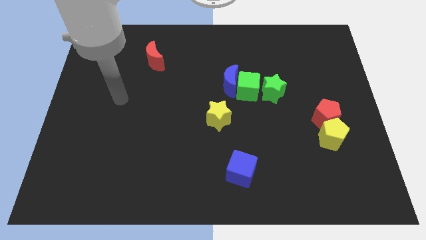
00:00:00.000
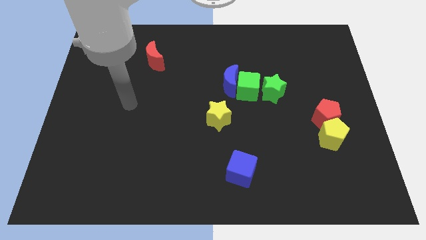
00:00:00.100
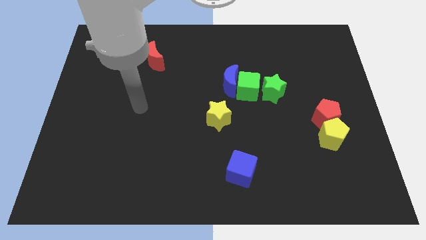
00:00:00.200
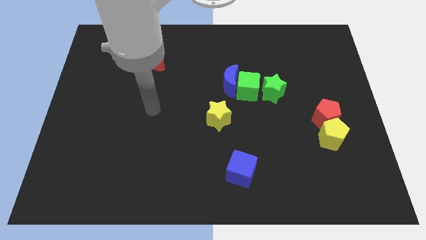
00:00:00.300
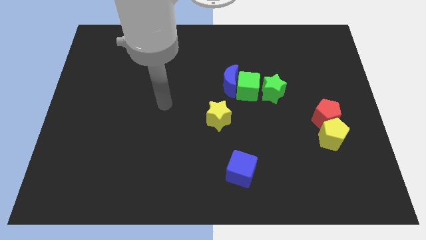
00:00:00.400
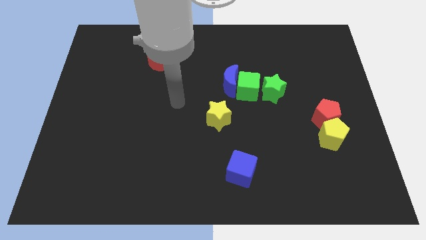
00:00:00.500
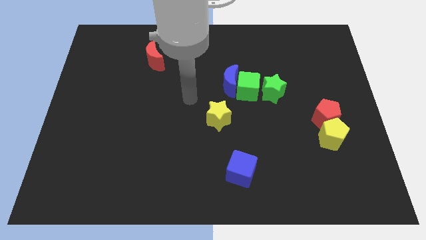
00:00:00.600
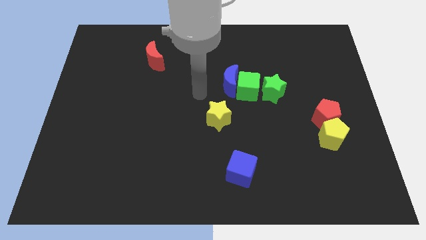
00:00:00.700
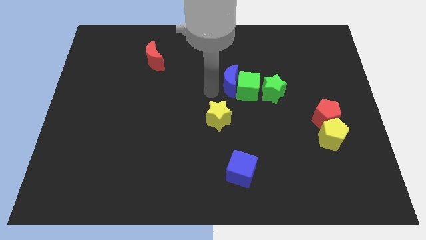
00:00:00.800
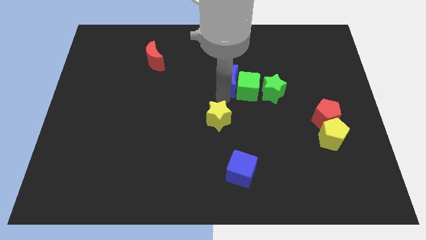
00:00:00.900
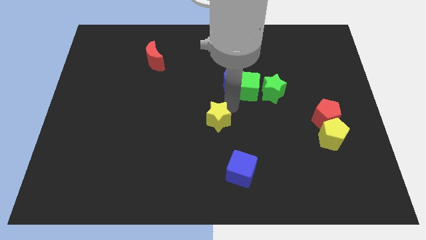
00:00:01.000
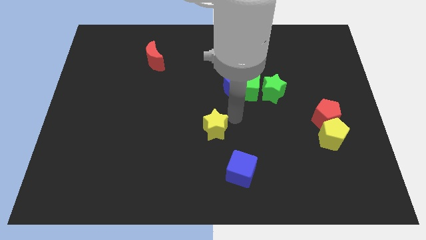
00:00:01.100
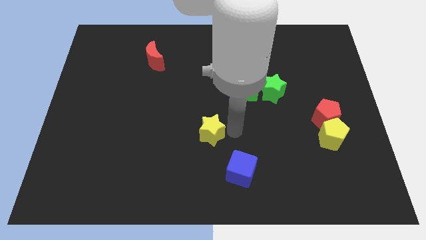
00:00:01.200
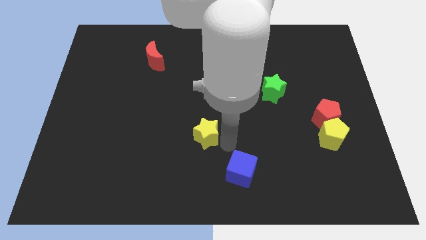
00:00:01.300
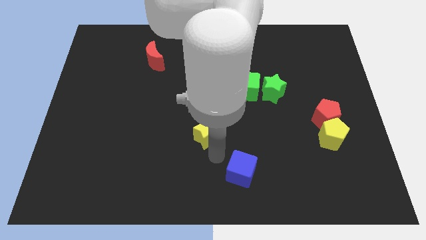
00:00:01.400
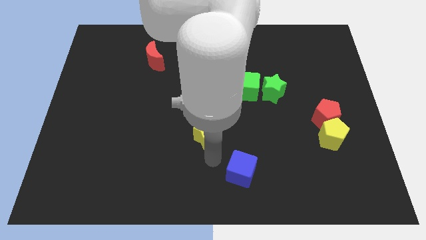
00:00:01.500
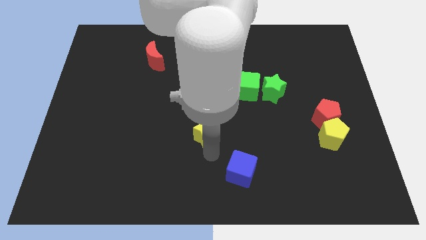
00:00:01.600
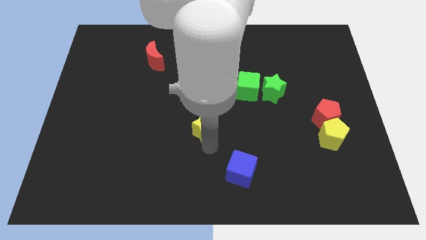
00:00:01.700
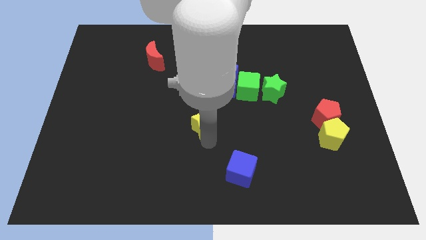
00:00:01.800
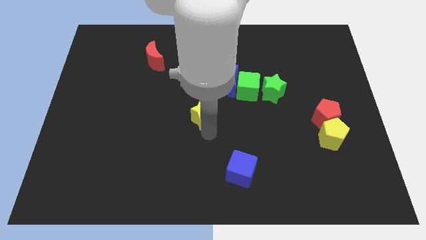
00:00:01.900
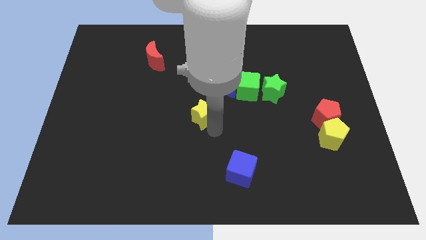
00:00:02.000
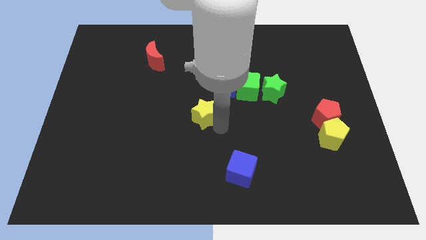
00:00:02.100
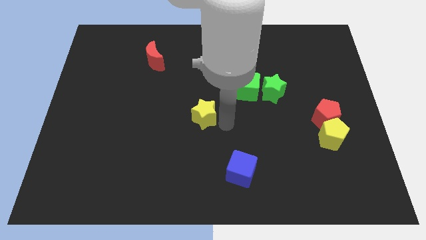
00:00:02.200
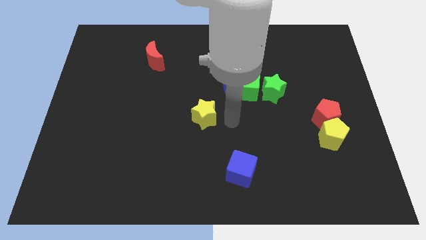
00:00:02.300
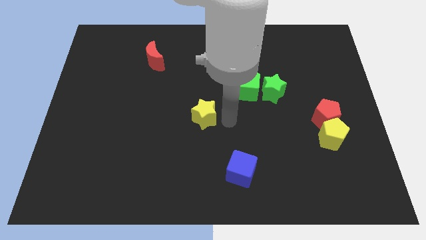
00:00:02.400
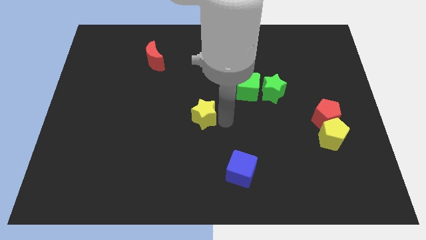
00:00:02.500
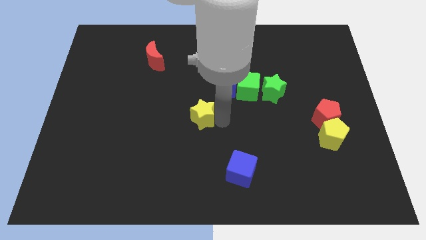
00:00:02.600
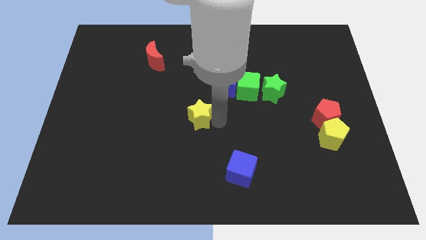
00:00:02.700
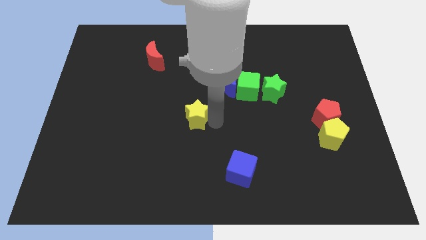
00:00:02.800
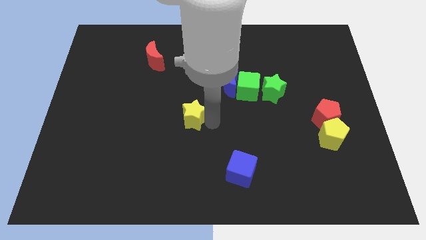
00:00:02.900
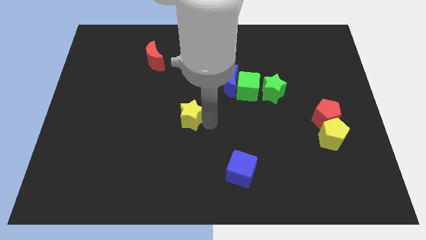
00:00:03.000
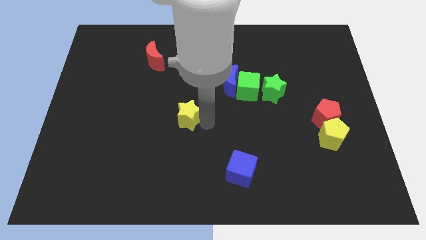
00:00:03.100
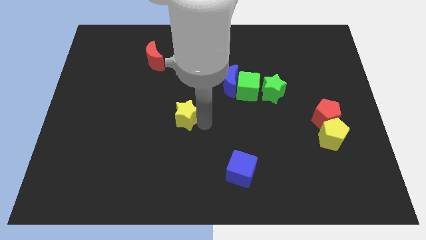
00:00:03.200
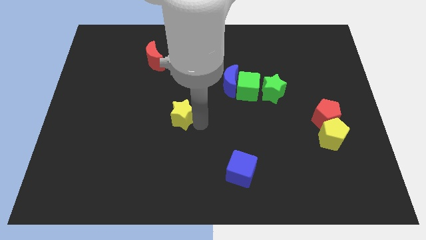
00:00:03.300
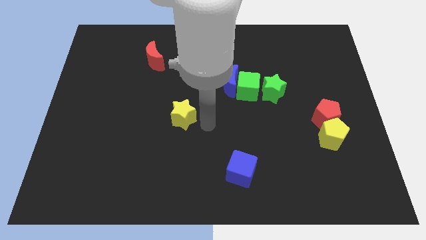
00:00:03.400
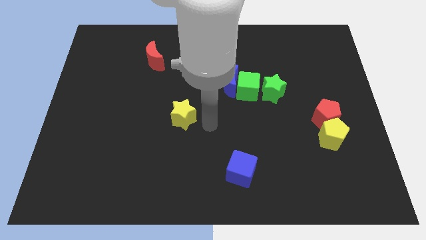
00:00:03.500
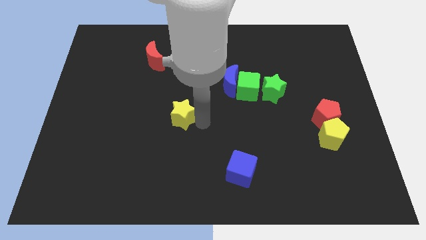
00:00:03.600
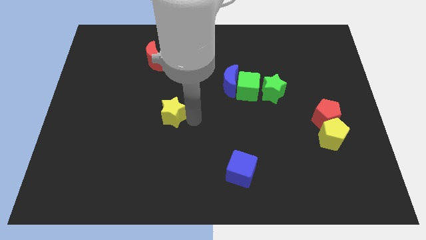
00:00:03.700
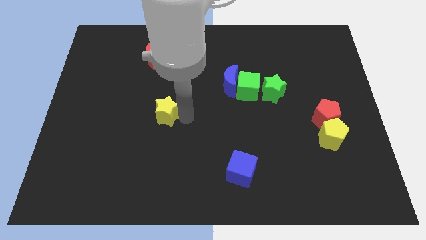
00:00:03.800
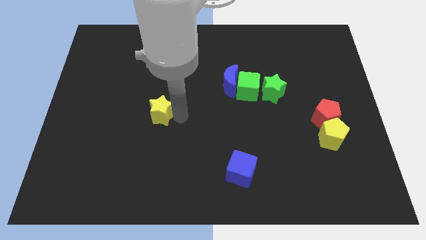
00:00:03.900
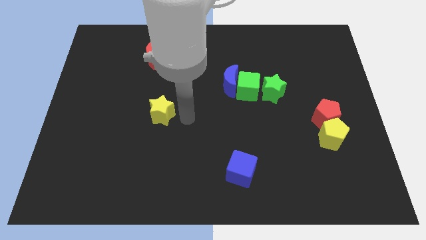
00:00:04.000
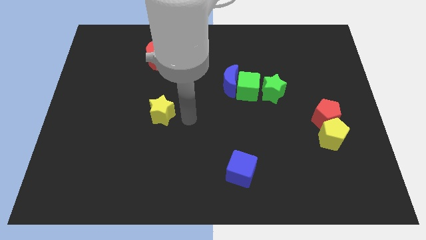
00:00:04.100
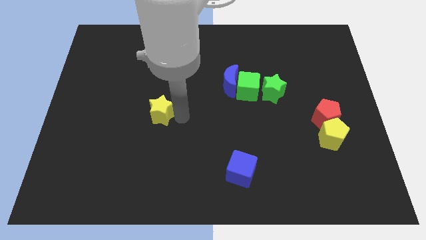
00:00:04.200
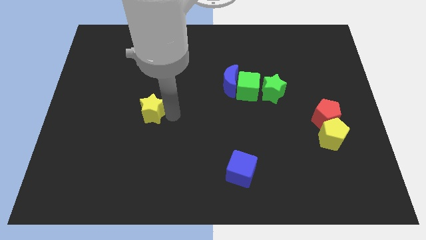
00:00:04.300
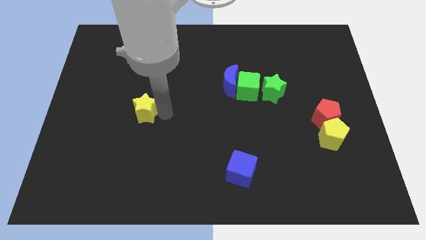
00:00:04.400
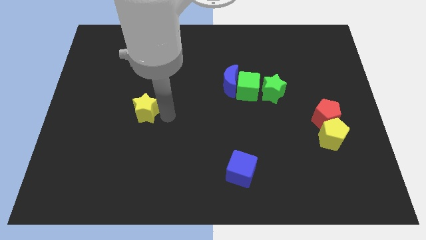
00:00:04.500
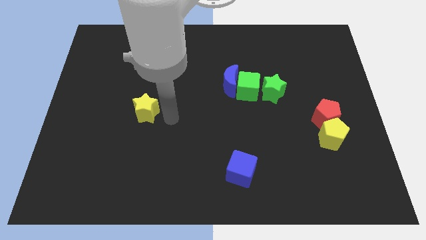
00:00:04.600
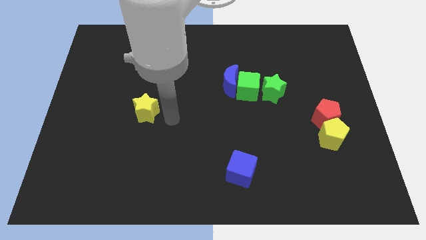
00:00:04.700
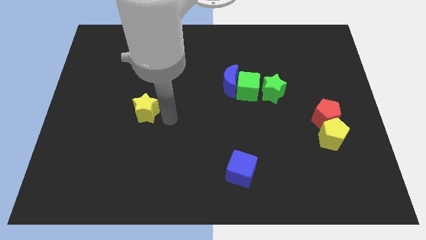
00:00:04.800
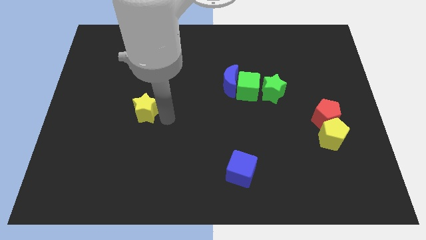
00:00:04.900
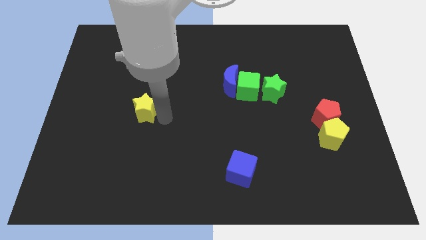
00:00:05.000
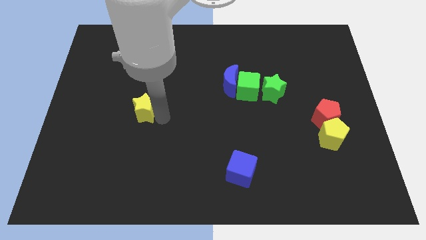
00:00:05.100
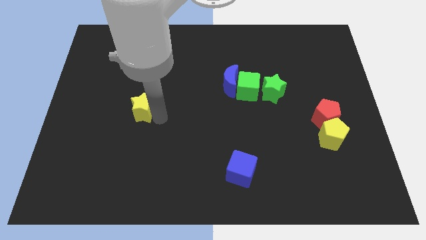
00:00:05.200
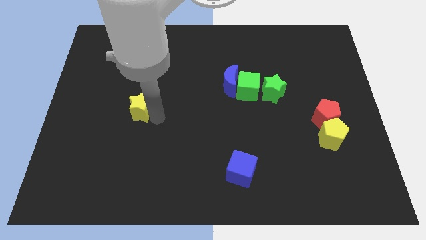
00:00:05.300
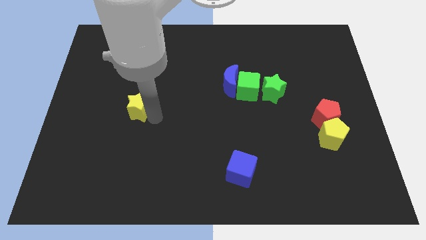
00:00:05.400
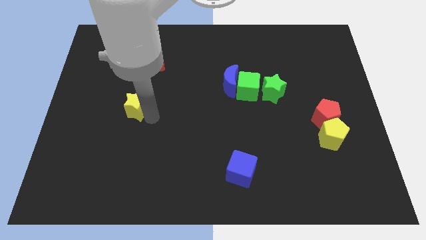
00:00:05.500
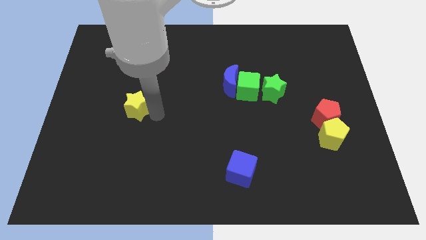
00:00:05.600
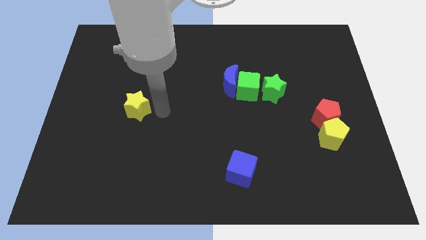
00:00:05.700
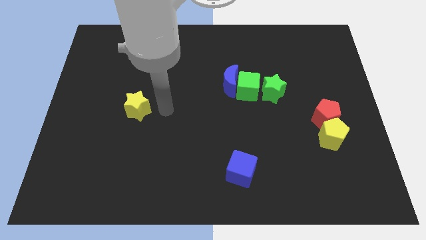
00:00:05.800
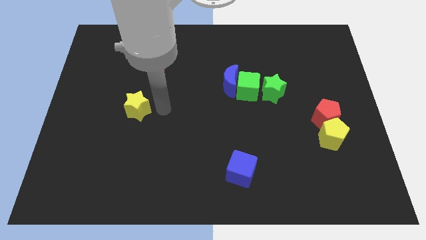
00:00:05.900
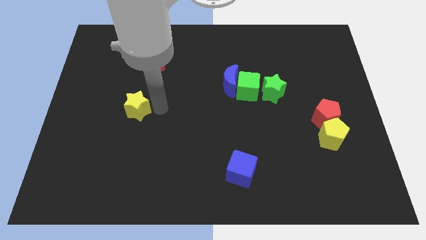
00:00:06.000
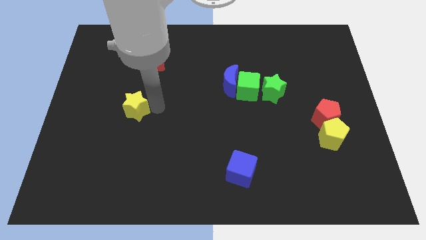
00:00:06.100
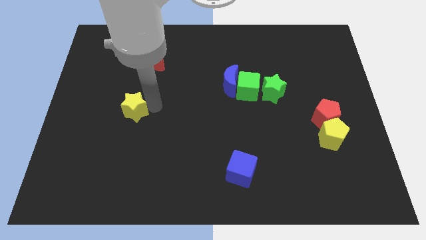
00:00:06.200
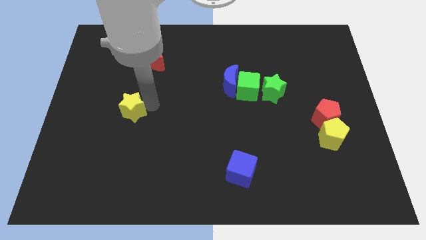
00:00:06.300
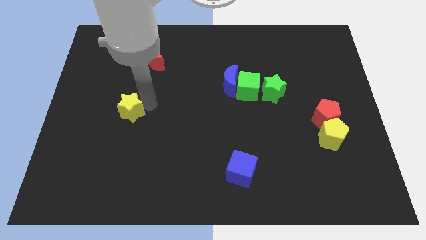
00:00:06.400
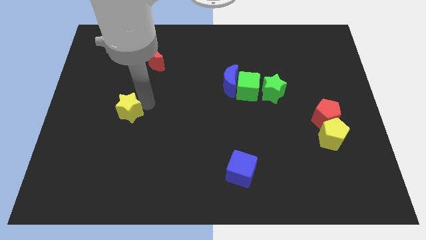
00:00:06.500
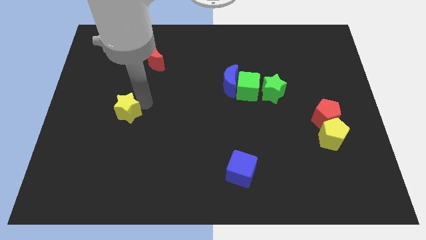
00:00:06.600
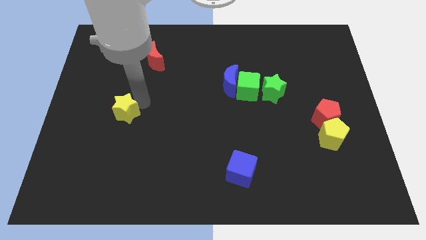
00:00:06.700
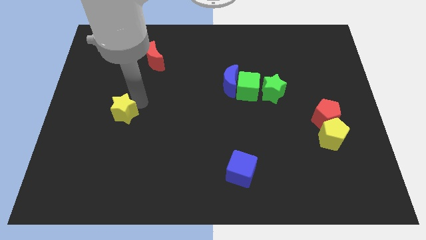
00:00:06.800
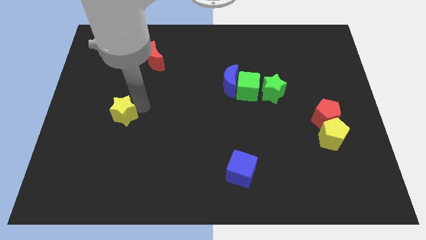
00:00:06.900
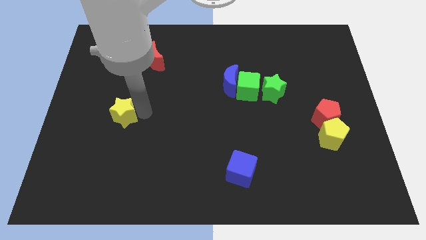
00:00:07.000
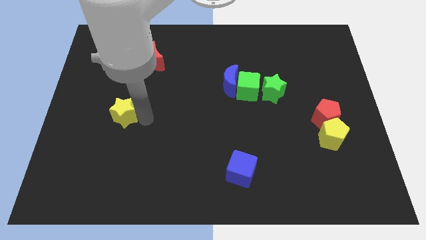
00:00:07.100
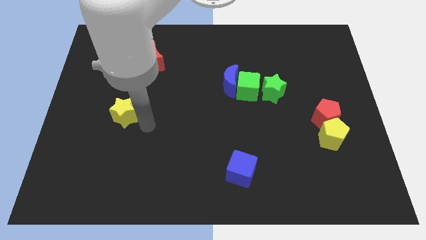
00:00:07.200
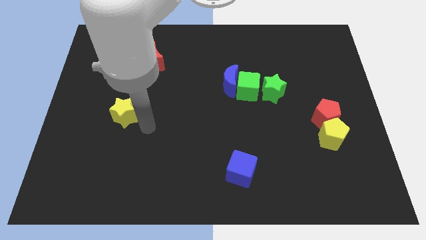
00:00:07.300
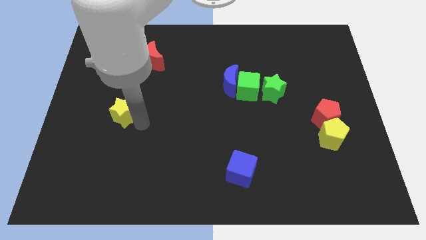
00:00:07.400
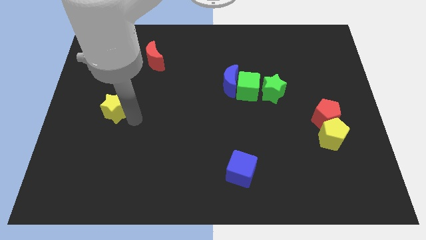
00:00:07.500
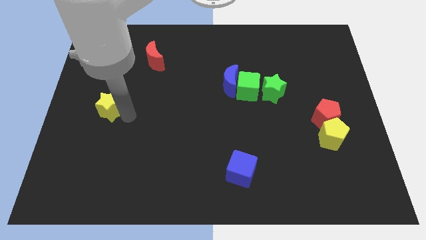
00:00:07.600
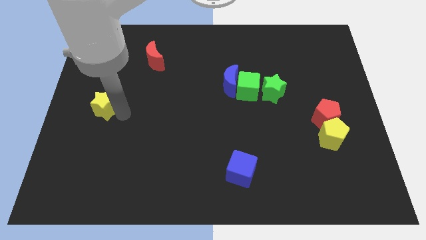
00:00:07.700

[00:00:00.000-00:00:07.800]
put the yellow star to the center left
